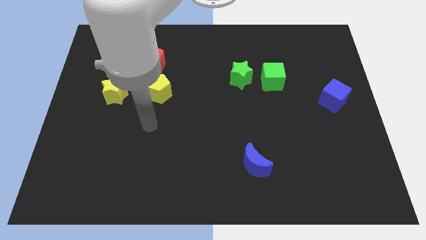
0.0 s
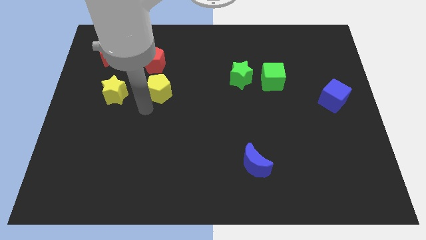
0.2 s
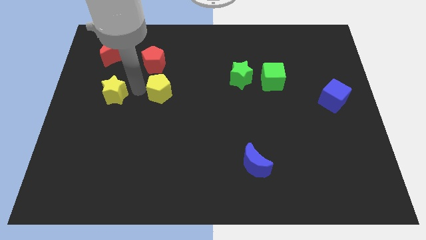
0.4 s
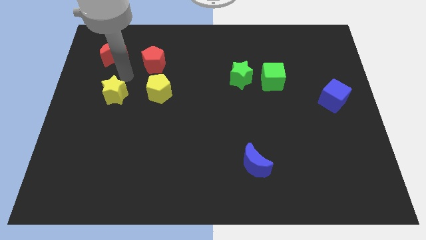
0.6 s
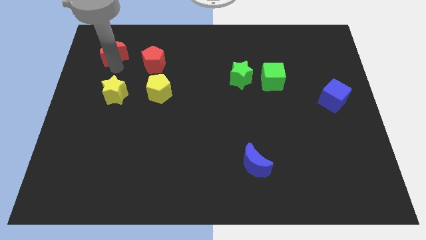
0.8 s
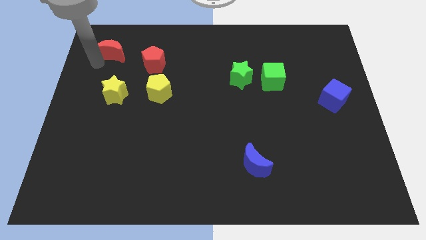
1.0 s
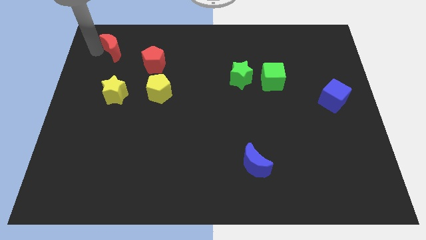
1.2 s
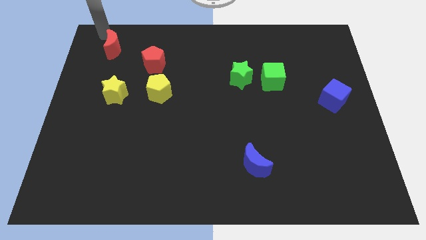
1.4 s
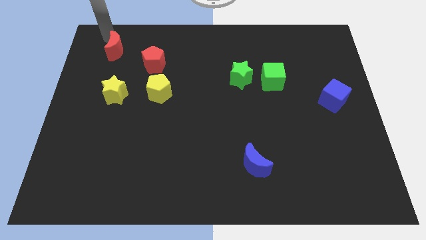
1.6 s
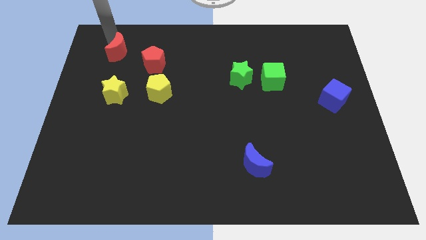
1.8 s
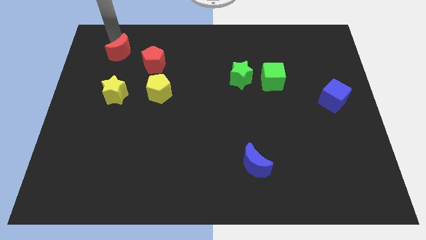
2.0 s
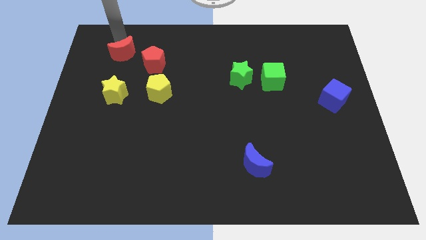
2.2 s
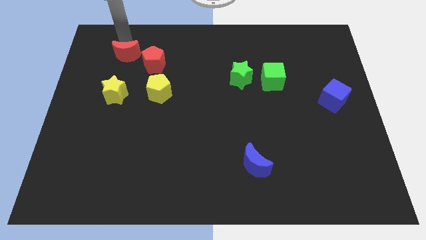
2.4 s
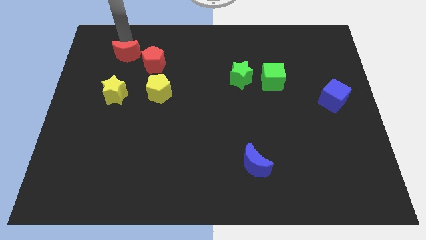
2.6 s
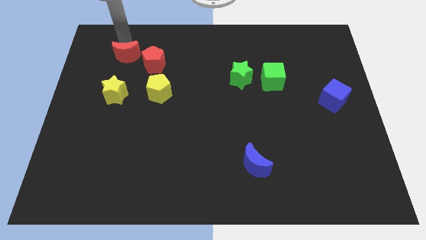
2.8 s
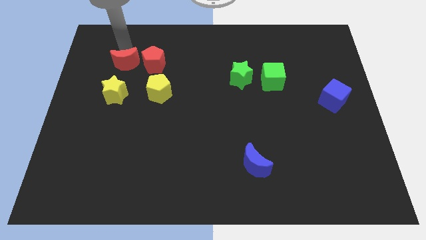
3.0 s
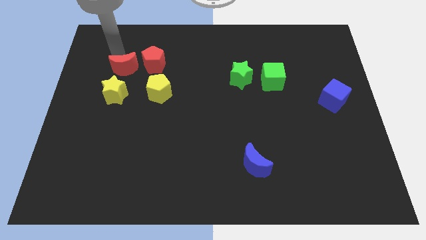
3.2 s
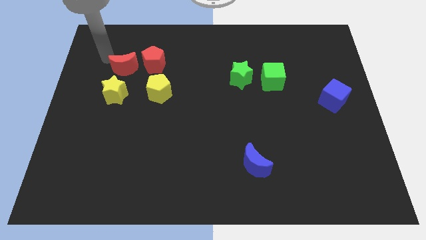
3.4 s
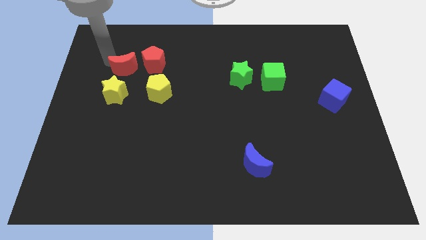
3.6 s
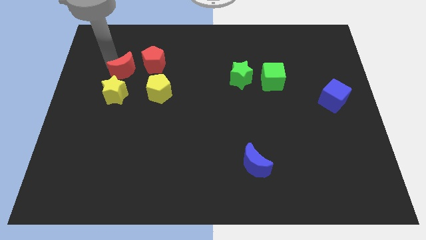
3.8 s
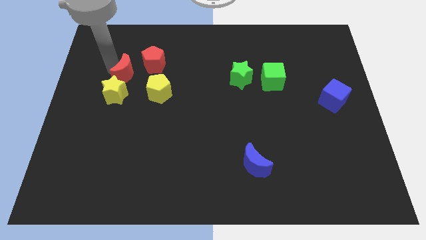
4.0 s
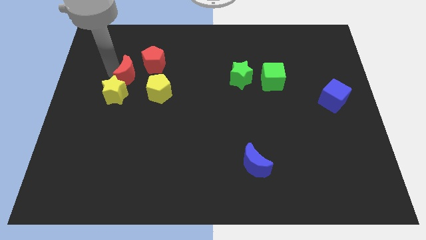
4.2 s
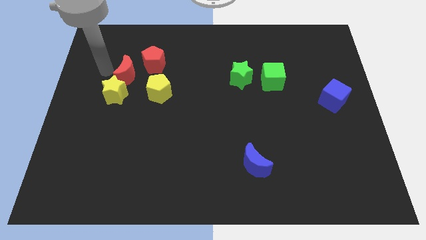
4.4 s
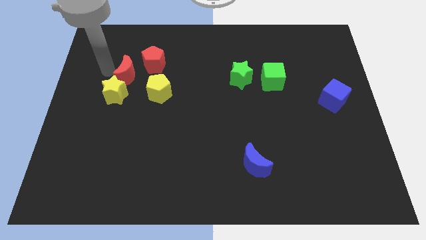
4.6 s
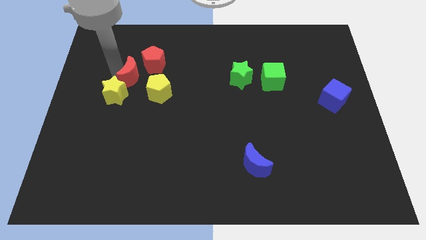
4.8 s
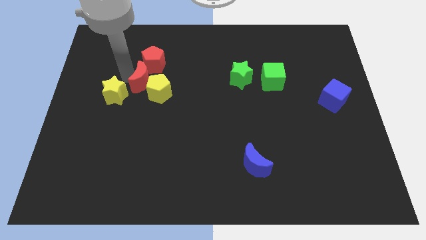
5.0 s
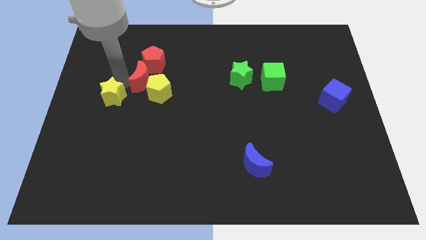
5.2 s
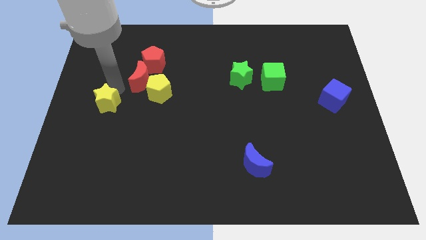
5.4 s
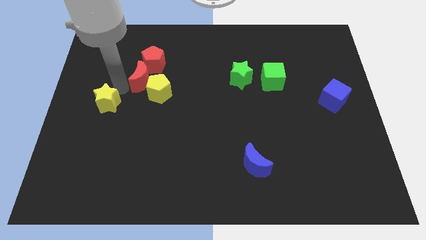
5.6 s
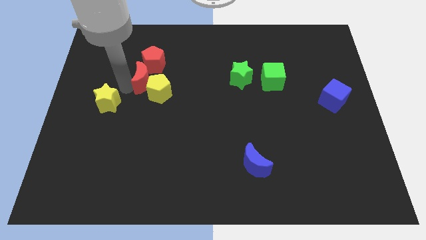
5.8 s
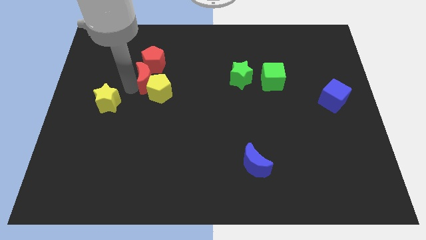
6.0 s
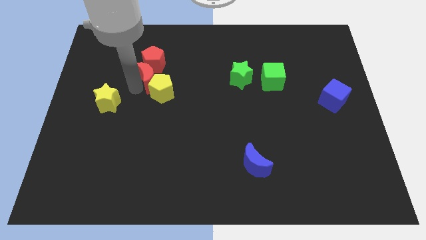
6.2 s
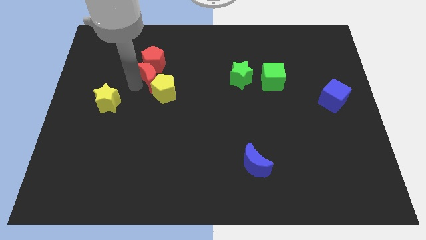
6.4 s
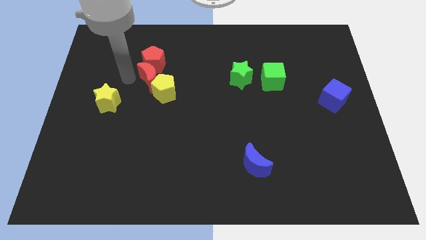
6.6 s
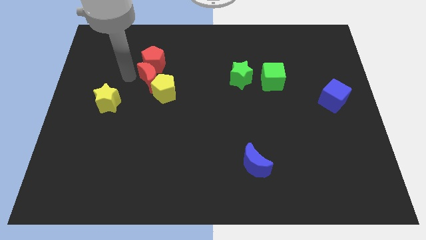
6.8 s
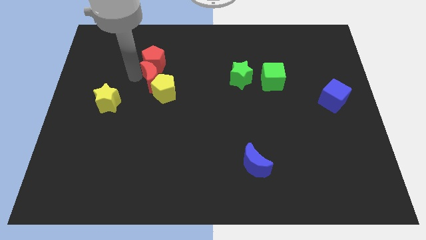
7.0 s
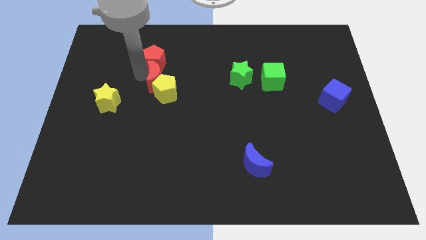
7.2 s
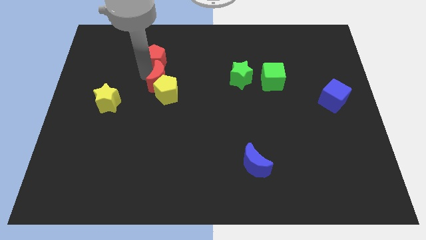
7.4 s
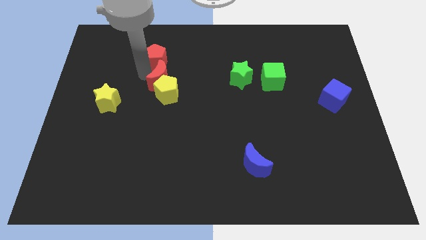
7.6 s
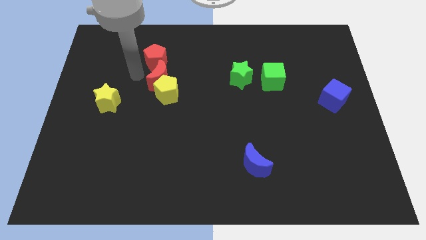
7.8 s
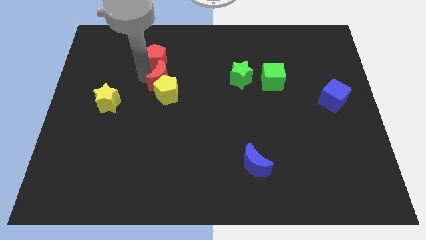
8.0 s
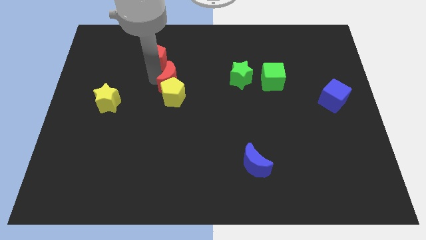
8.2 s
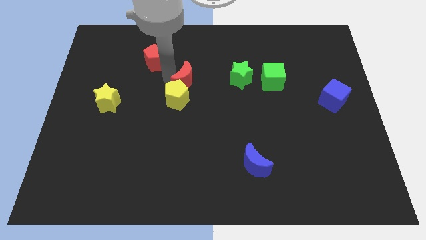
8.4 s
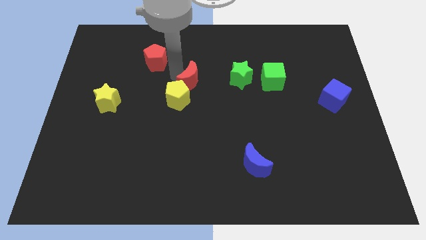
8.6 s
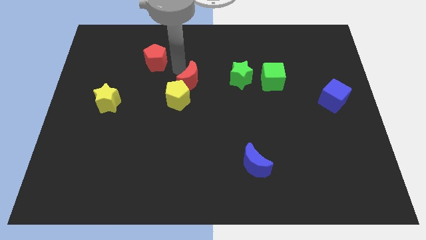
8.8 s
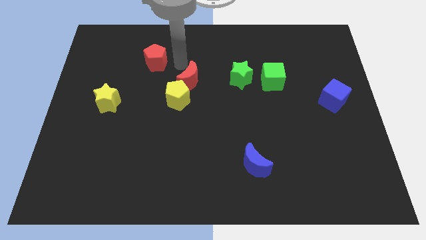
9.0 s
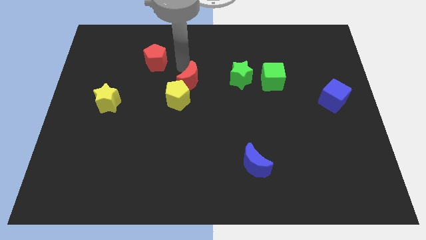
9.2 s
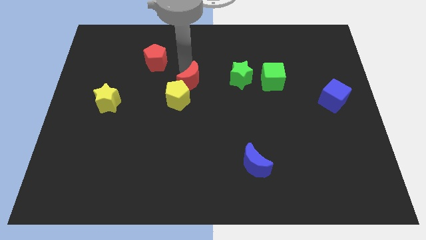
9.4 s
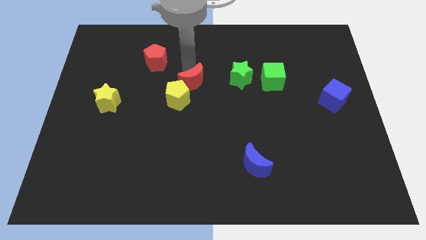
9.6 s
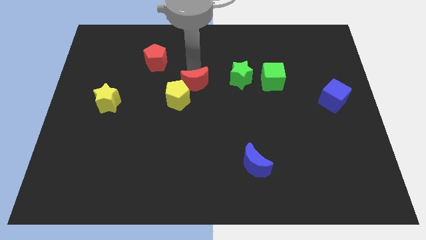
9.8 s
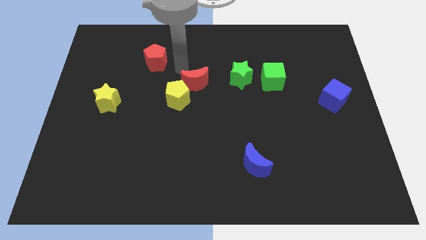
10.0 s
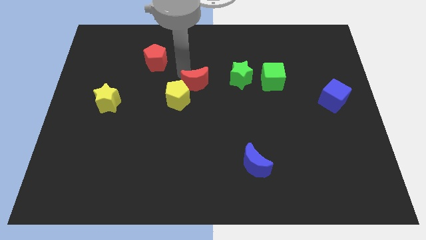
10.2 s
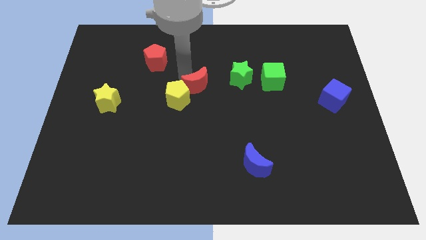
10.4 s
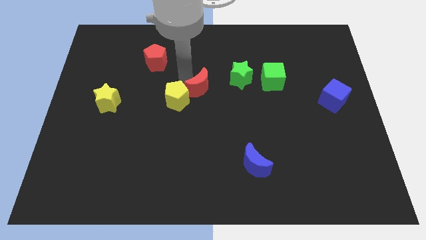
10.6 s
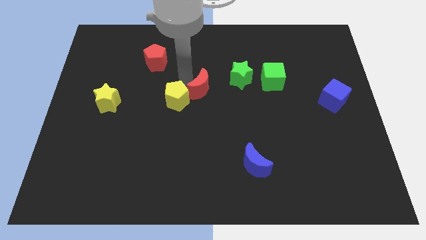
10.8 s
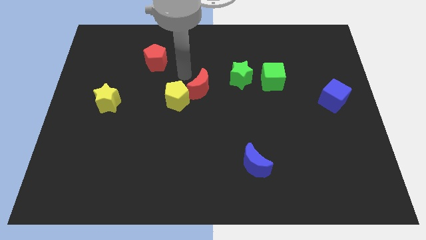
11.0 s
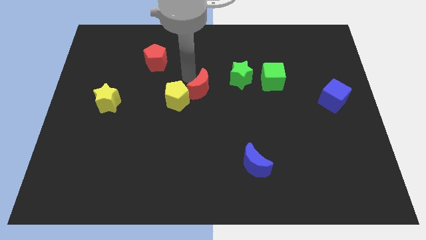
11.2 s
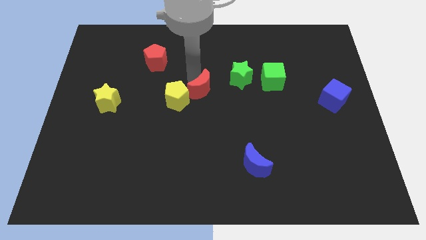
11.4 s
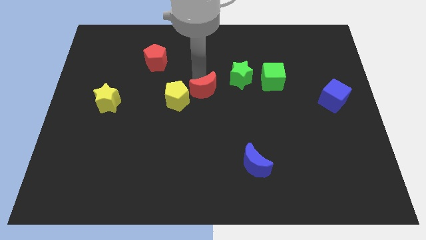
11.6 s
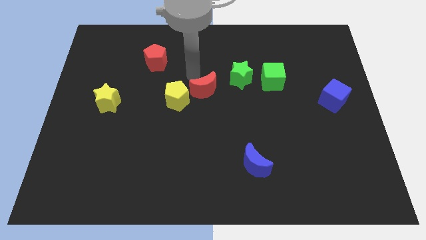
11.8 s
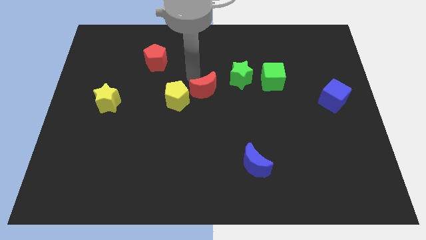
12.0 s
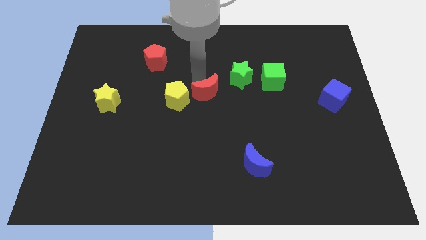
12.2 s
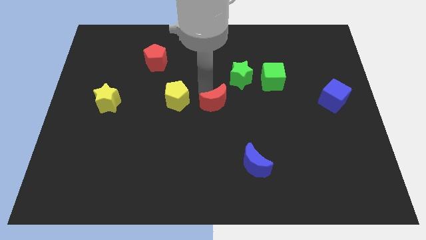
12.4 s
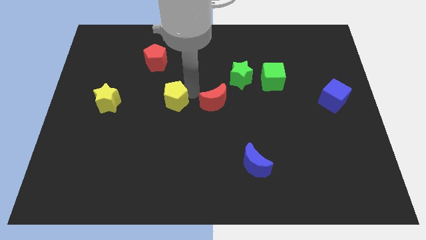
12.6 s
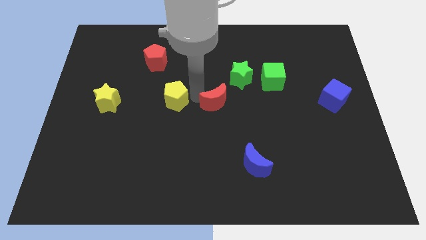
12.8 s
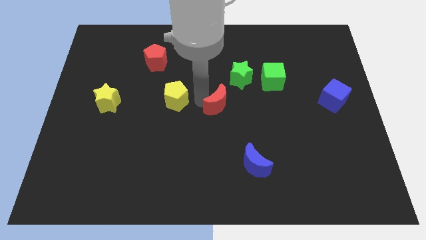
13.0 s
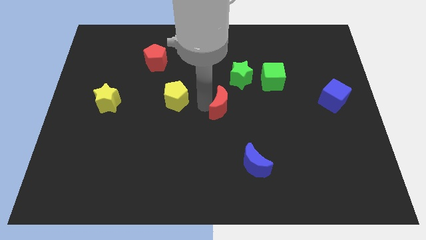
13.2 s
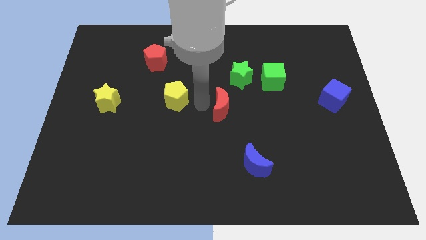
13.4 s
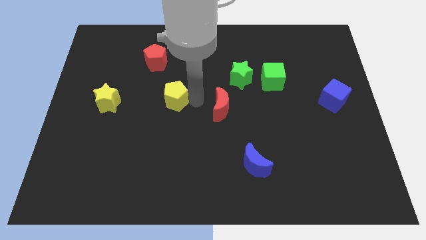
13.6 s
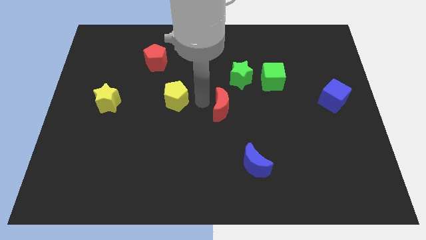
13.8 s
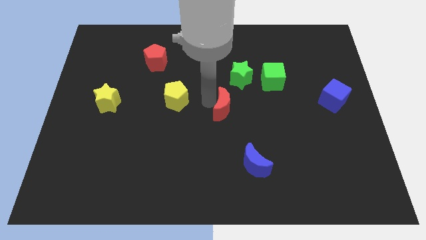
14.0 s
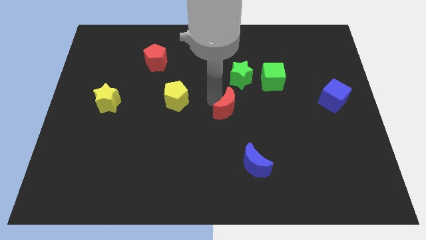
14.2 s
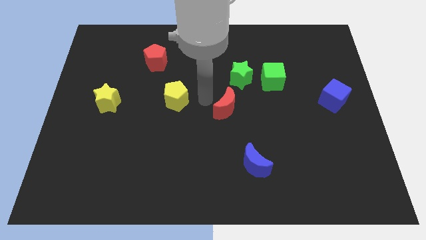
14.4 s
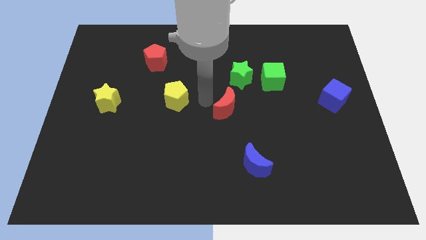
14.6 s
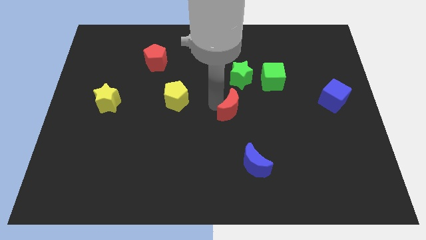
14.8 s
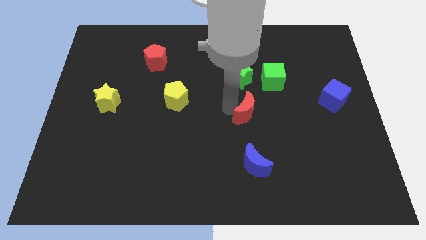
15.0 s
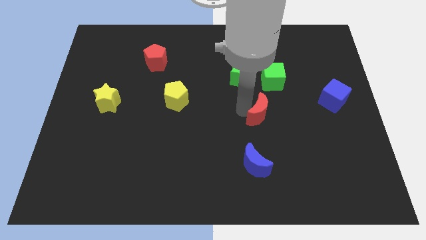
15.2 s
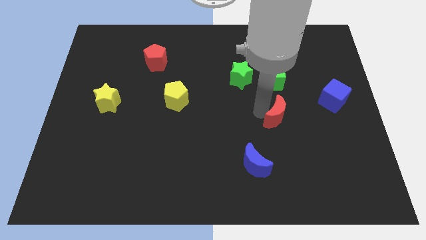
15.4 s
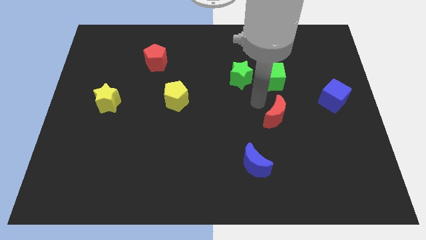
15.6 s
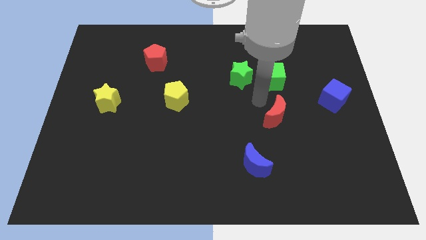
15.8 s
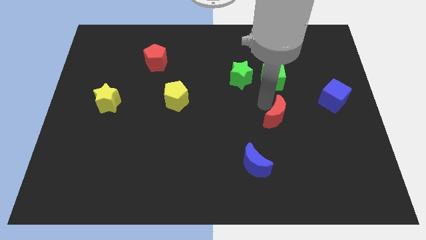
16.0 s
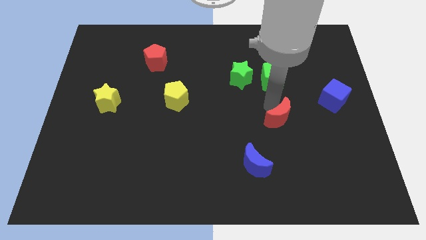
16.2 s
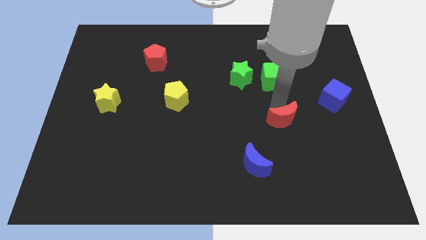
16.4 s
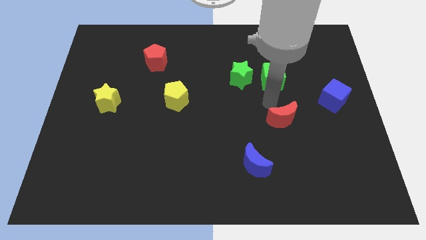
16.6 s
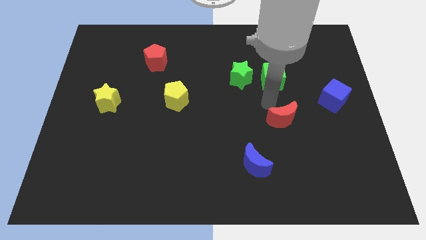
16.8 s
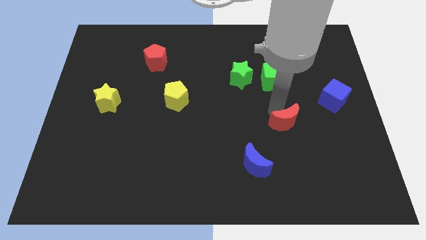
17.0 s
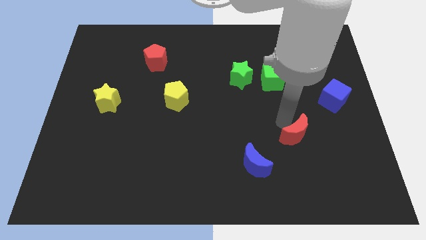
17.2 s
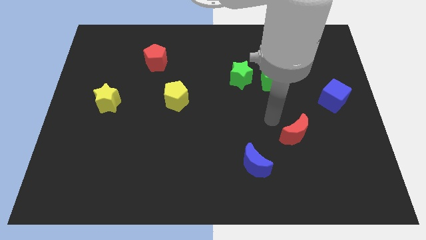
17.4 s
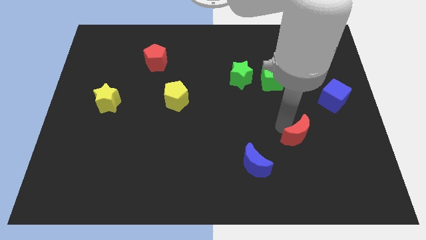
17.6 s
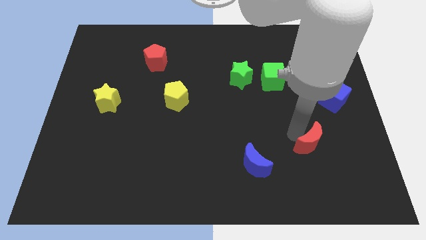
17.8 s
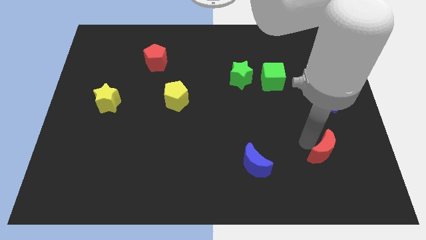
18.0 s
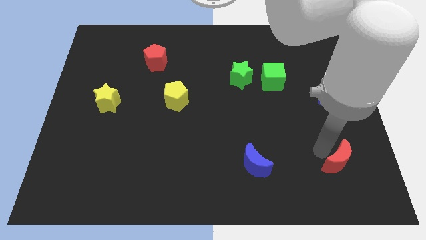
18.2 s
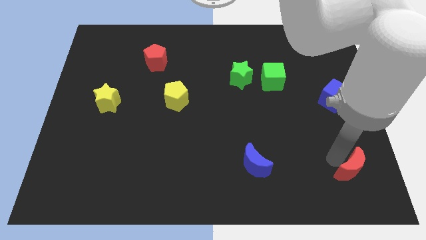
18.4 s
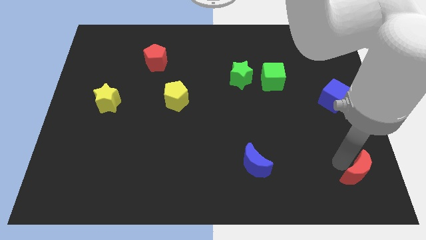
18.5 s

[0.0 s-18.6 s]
put the red moon to the bottom right
